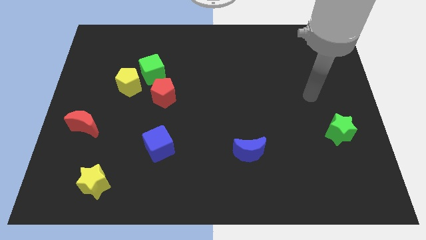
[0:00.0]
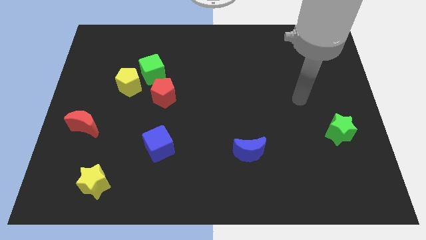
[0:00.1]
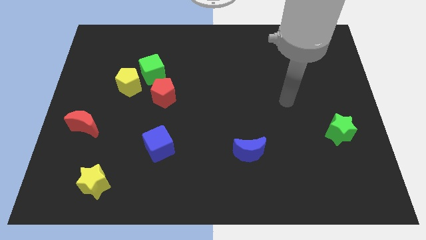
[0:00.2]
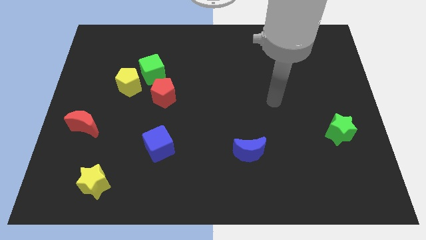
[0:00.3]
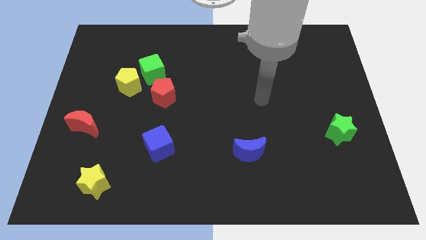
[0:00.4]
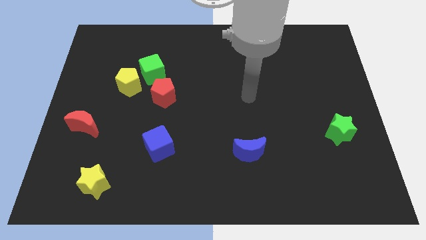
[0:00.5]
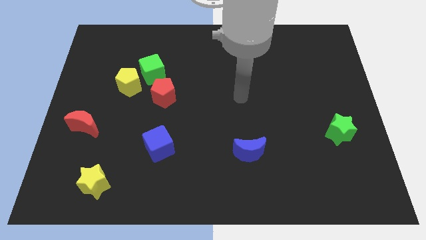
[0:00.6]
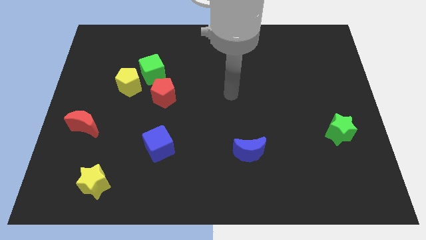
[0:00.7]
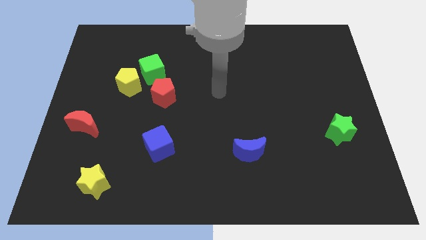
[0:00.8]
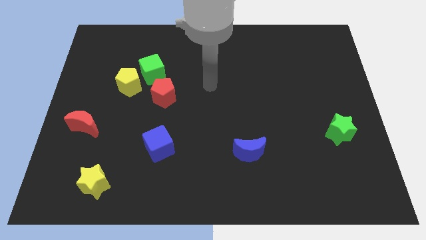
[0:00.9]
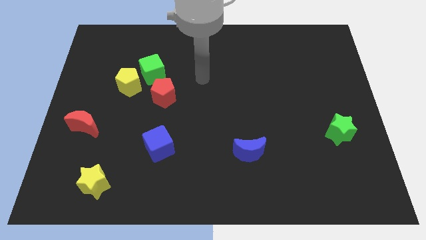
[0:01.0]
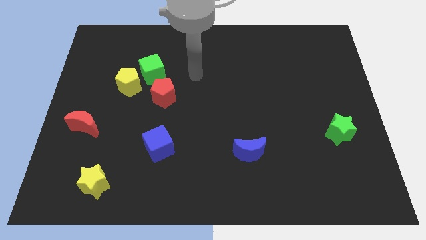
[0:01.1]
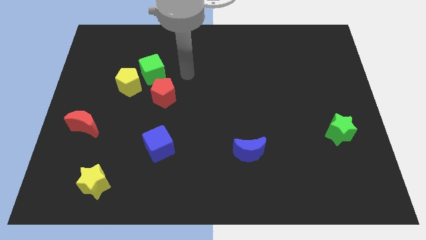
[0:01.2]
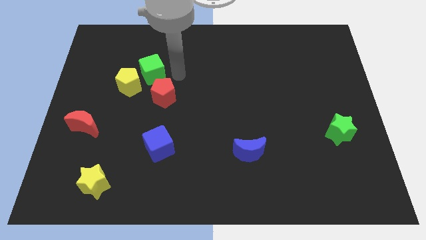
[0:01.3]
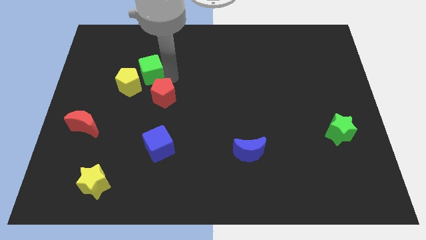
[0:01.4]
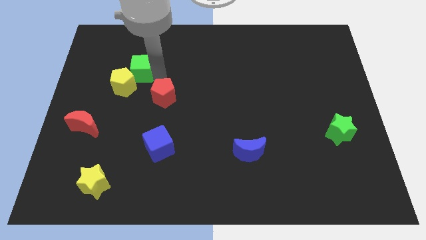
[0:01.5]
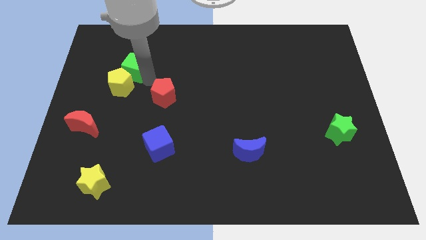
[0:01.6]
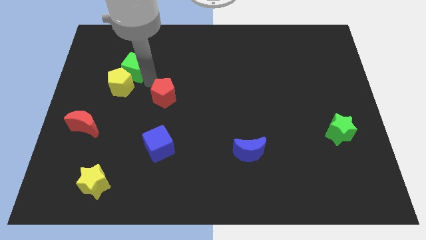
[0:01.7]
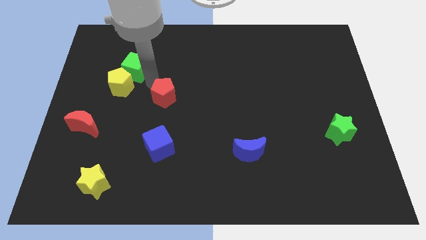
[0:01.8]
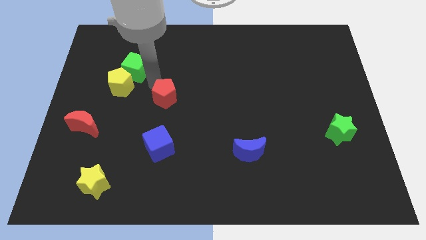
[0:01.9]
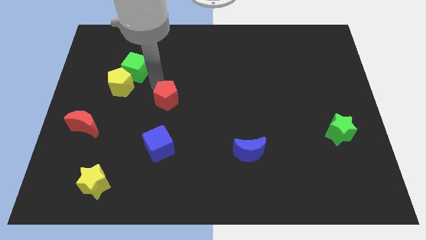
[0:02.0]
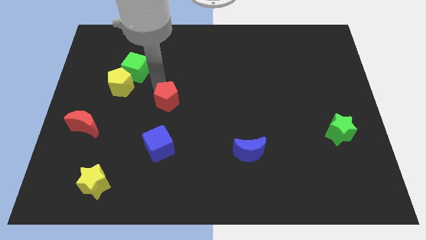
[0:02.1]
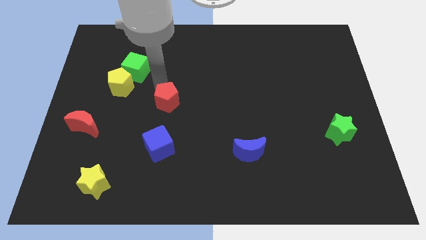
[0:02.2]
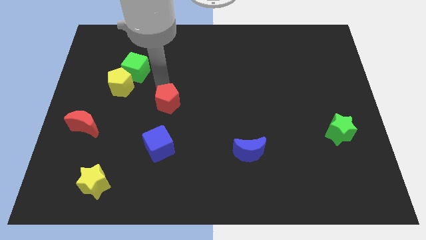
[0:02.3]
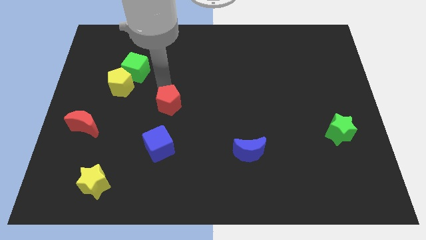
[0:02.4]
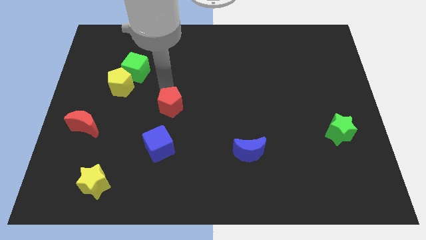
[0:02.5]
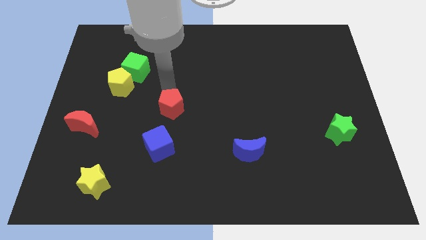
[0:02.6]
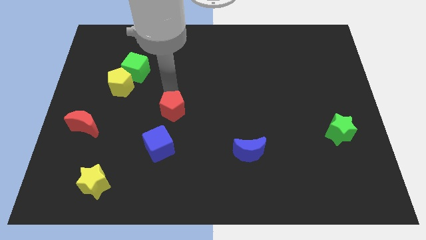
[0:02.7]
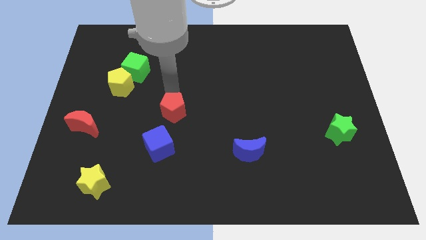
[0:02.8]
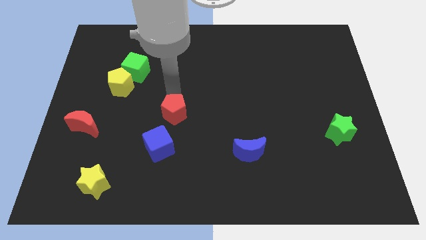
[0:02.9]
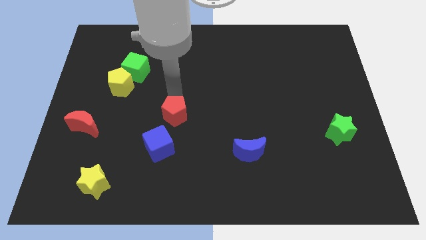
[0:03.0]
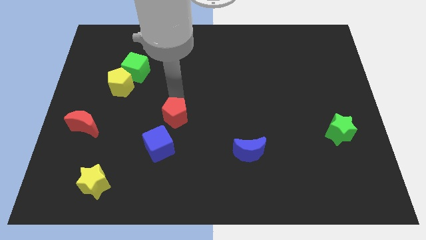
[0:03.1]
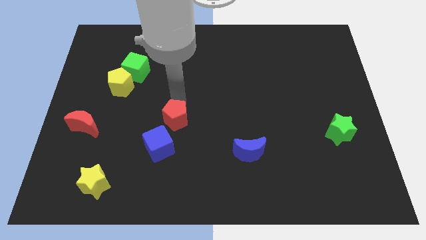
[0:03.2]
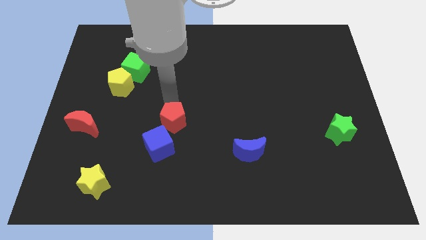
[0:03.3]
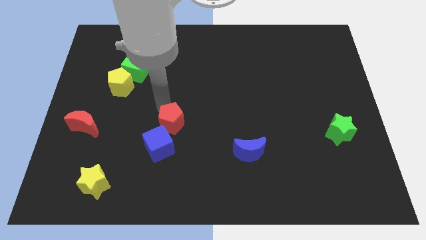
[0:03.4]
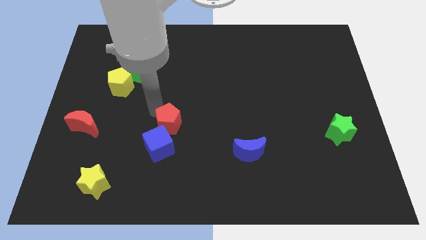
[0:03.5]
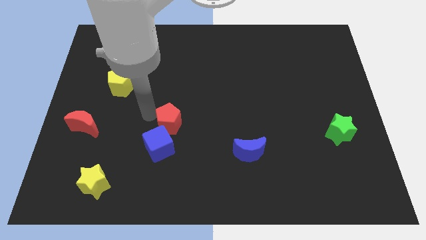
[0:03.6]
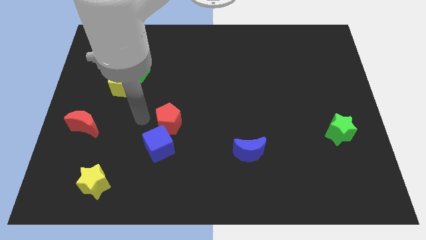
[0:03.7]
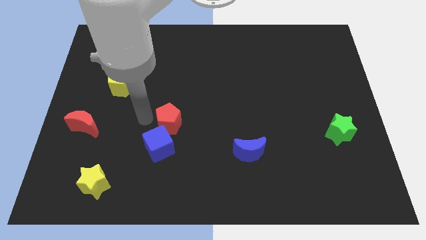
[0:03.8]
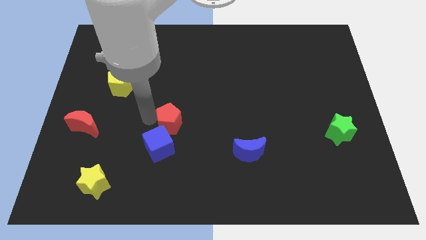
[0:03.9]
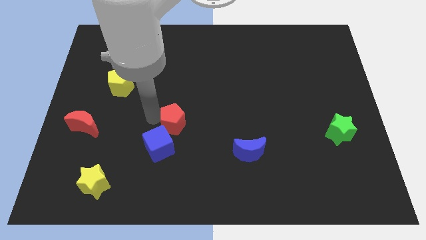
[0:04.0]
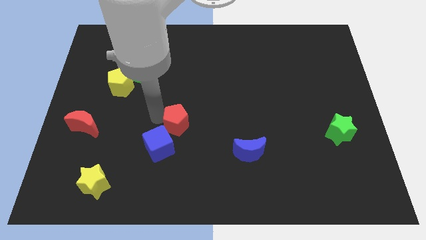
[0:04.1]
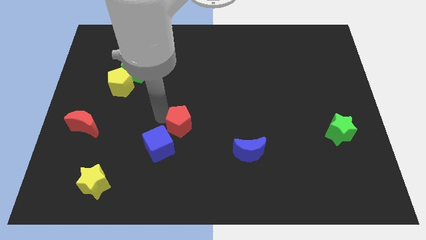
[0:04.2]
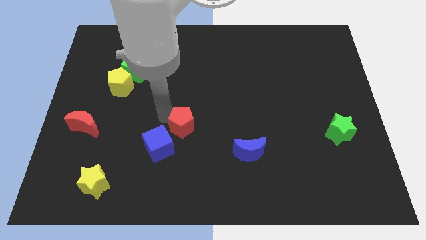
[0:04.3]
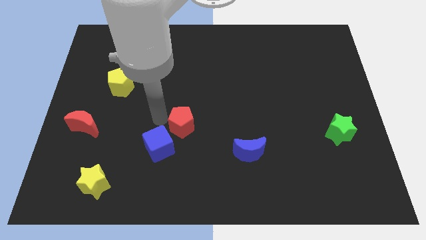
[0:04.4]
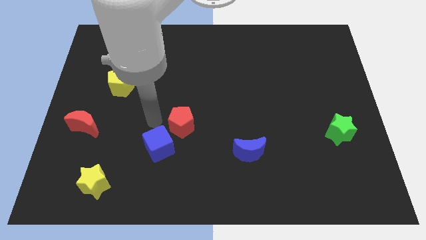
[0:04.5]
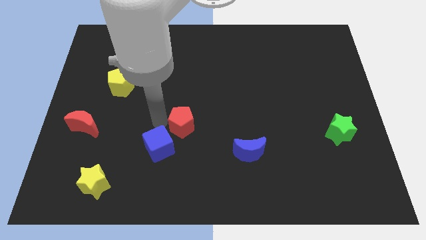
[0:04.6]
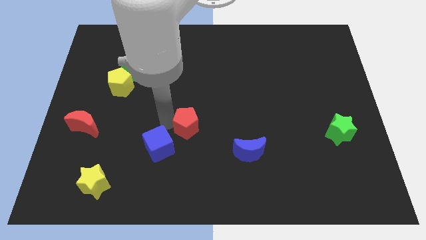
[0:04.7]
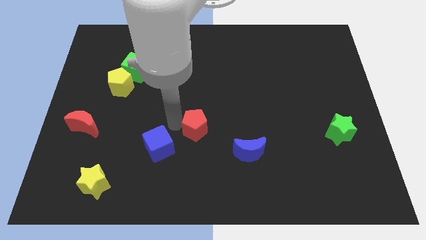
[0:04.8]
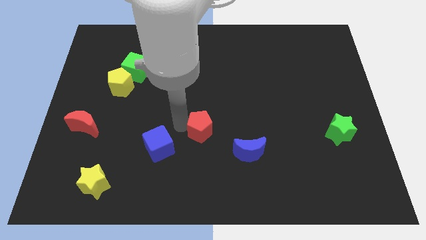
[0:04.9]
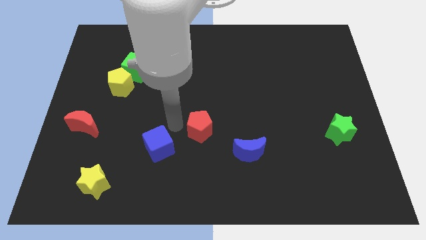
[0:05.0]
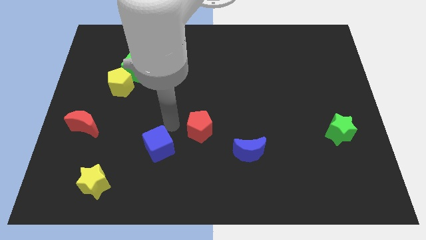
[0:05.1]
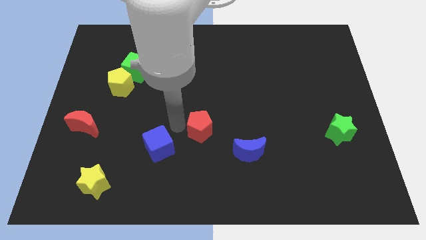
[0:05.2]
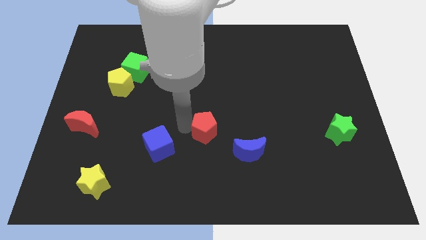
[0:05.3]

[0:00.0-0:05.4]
push the red pentagon diagonally up and to the left of the blue moon
